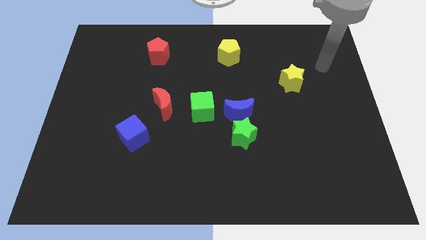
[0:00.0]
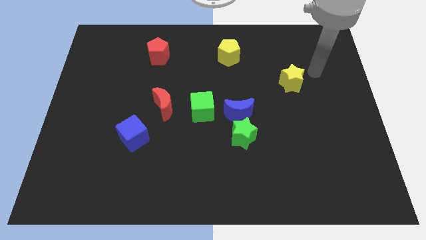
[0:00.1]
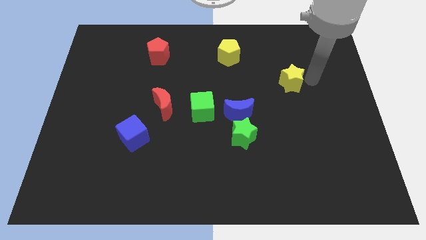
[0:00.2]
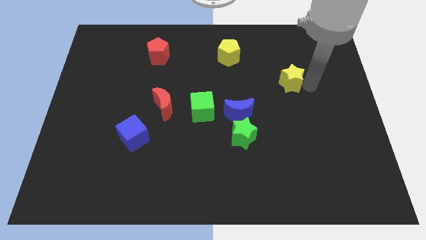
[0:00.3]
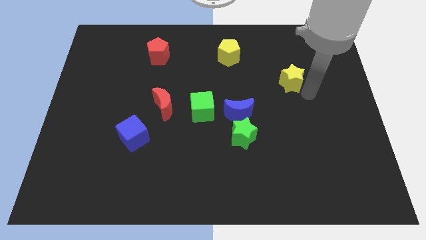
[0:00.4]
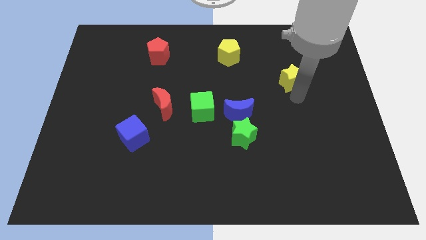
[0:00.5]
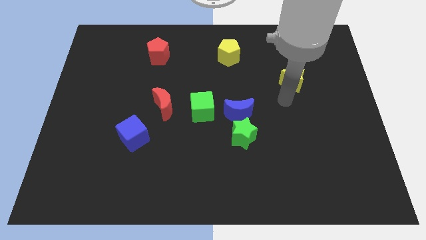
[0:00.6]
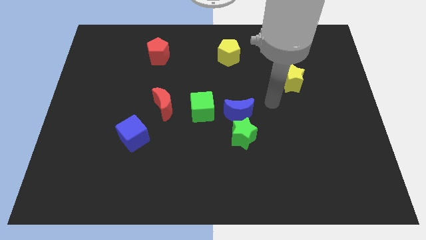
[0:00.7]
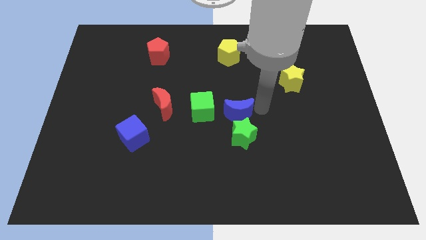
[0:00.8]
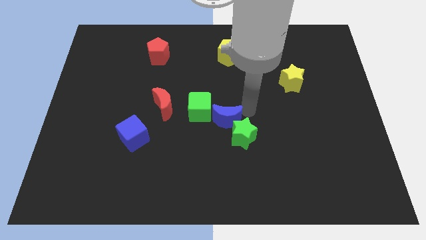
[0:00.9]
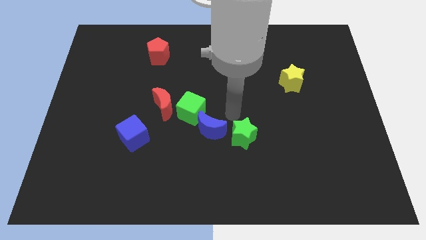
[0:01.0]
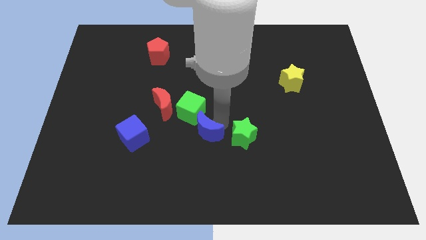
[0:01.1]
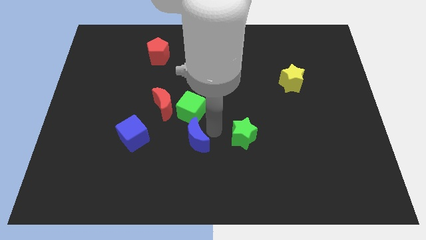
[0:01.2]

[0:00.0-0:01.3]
pull the green star apart from the blue moon

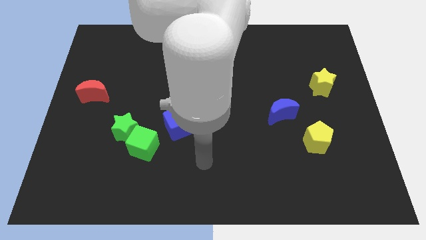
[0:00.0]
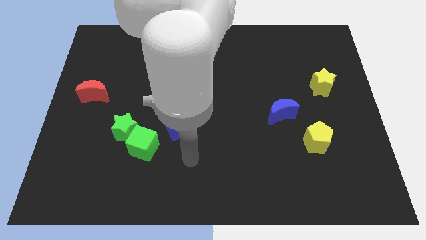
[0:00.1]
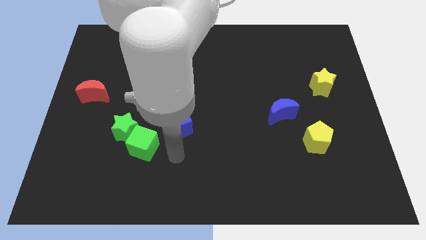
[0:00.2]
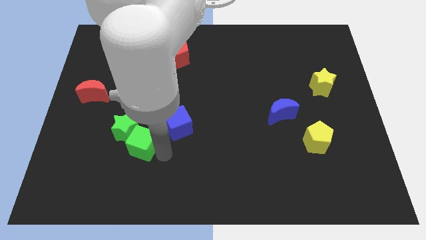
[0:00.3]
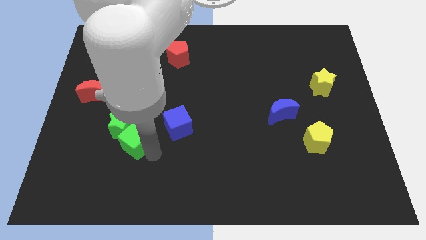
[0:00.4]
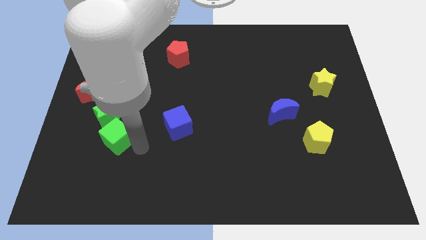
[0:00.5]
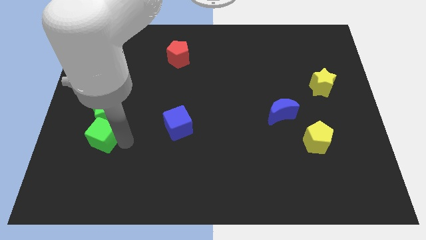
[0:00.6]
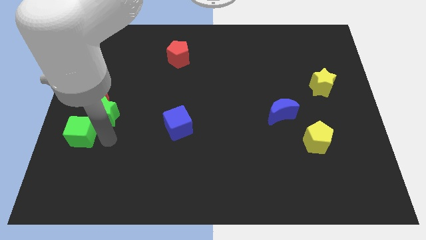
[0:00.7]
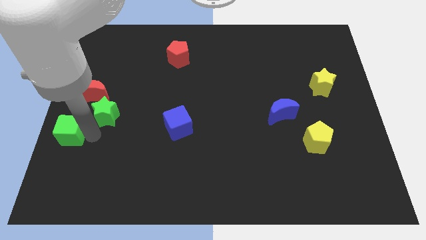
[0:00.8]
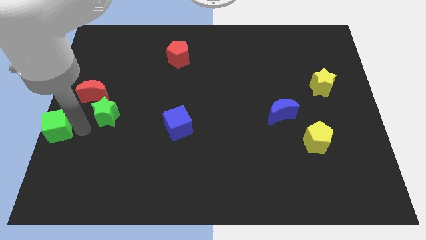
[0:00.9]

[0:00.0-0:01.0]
pull the green star apart from the green cube

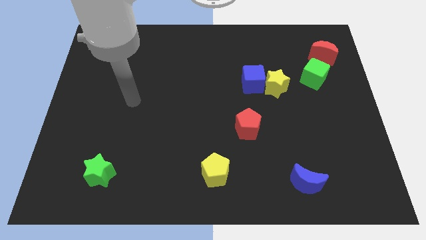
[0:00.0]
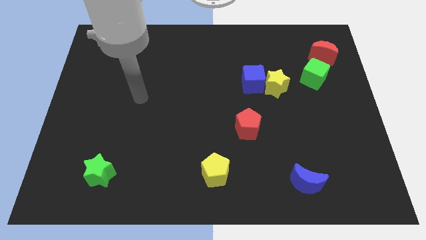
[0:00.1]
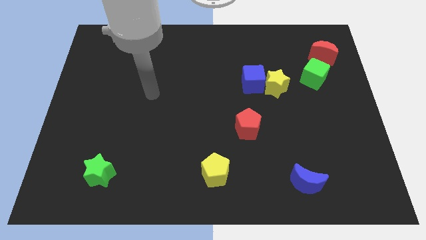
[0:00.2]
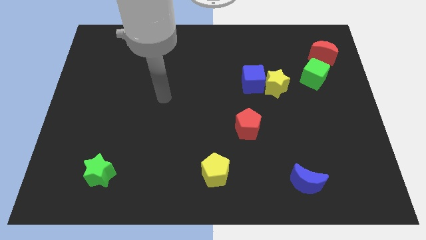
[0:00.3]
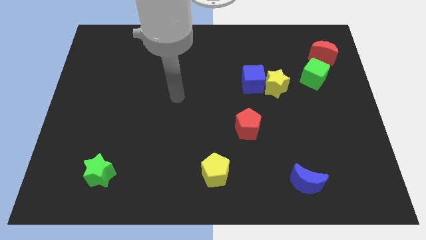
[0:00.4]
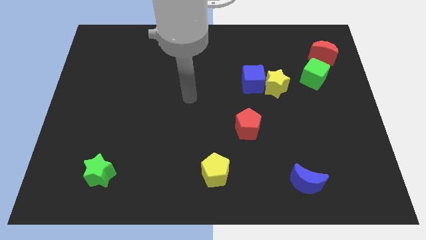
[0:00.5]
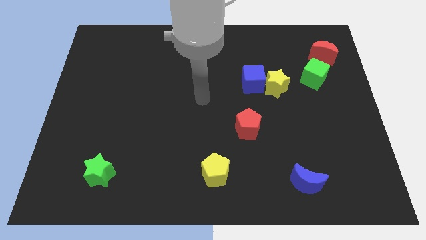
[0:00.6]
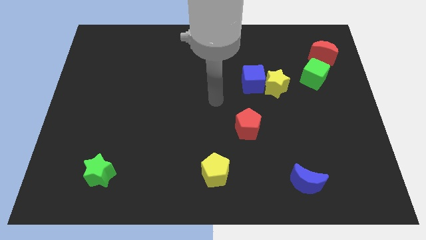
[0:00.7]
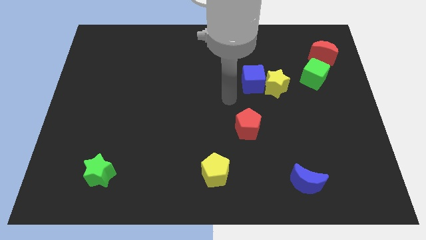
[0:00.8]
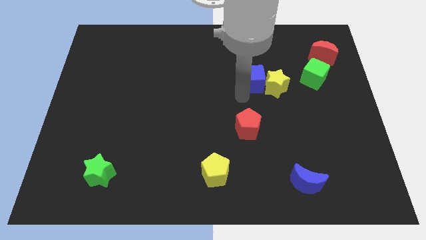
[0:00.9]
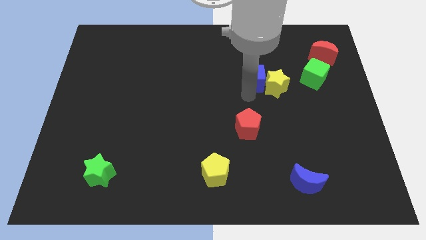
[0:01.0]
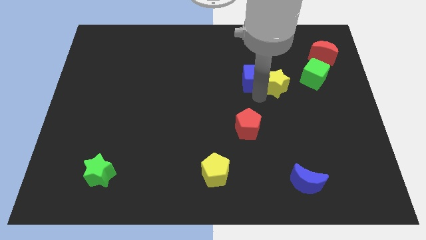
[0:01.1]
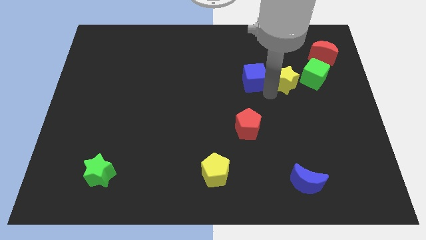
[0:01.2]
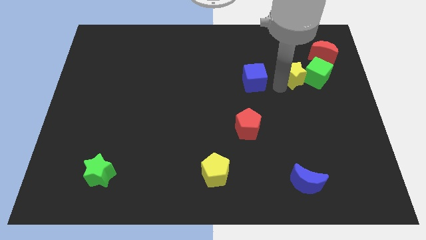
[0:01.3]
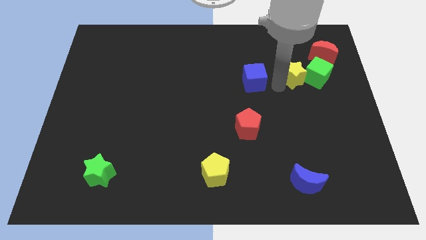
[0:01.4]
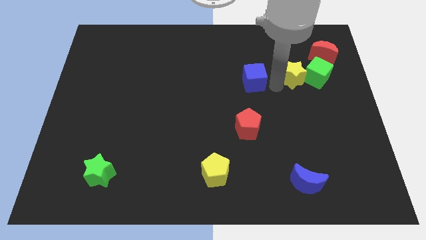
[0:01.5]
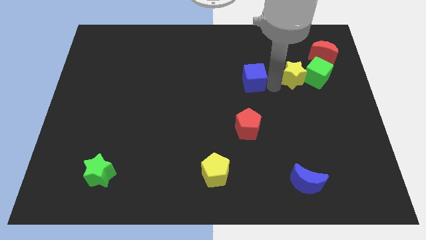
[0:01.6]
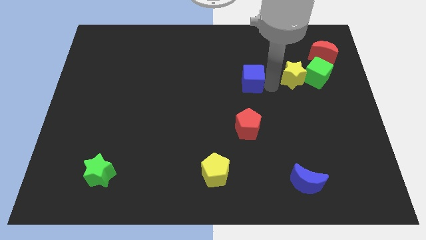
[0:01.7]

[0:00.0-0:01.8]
pull the blue cube apart from the yellow star

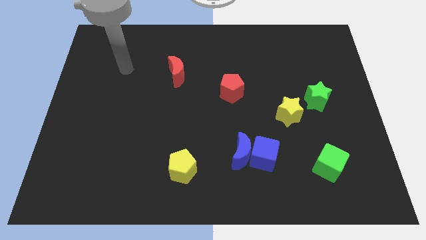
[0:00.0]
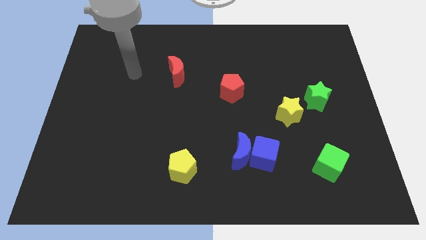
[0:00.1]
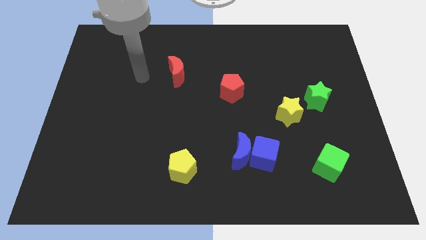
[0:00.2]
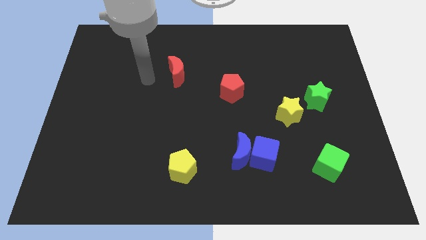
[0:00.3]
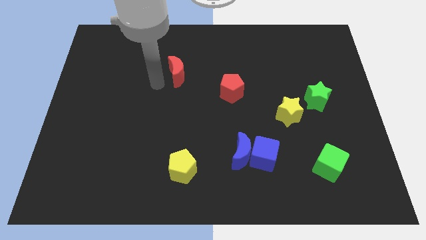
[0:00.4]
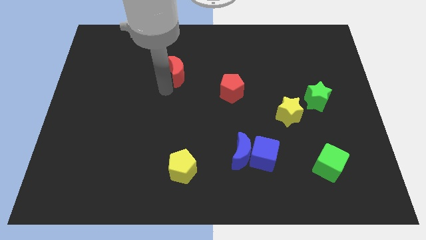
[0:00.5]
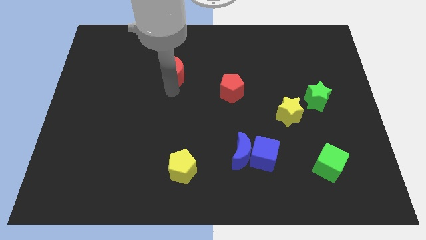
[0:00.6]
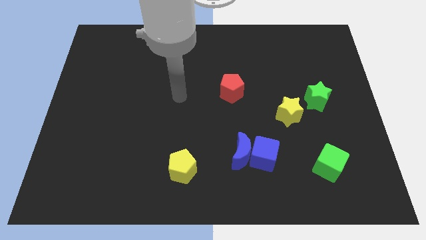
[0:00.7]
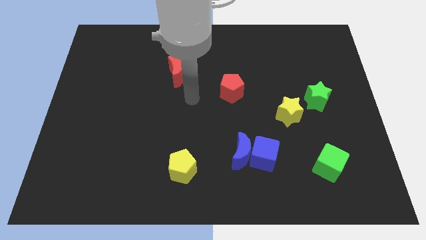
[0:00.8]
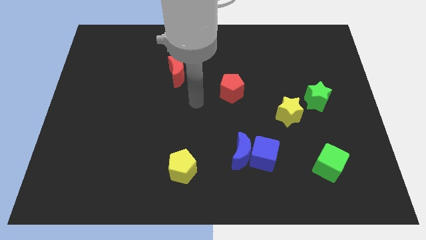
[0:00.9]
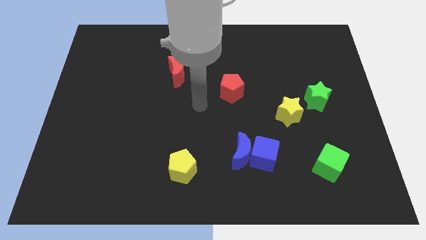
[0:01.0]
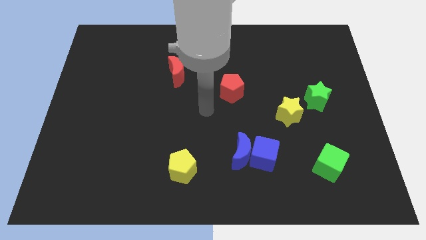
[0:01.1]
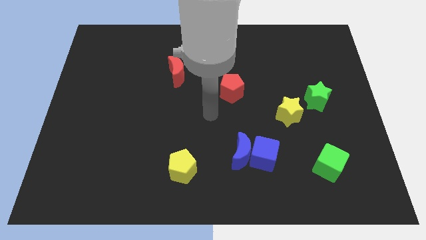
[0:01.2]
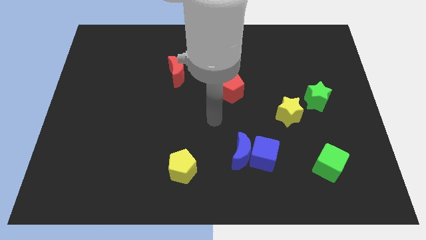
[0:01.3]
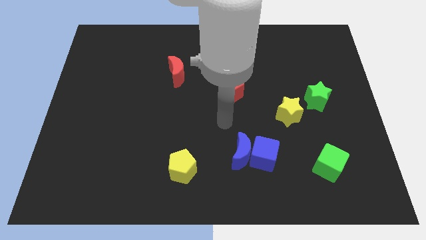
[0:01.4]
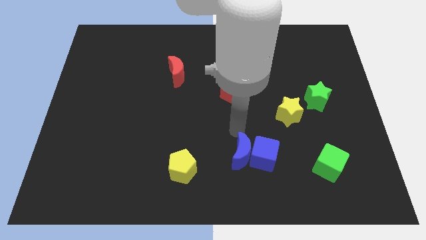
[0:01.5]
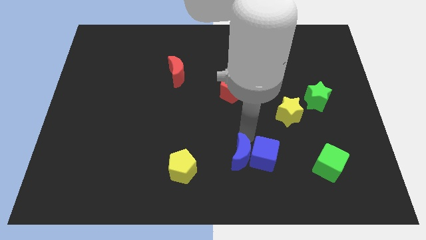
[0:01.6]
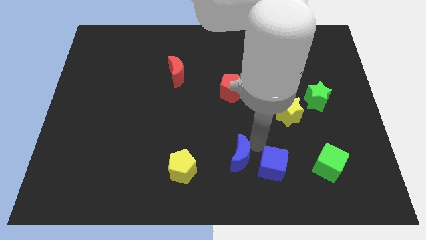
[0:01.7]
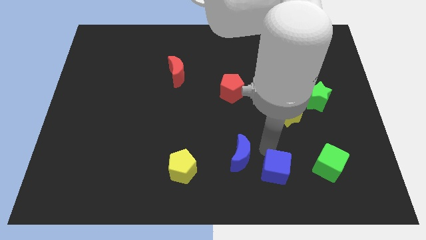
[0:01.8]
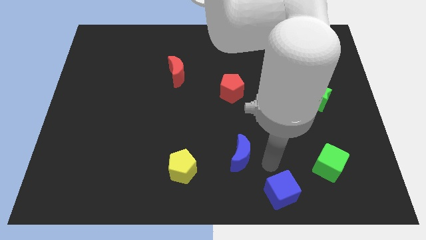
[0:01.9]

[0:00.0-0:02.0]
move the blue moon away from the blue cube

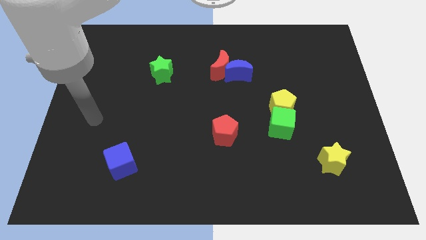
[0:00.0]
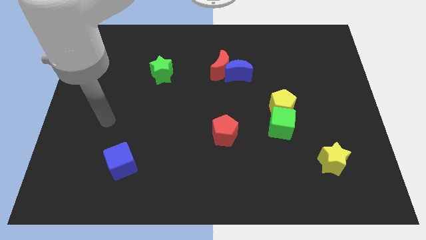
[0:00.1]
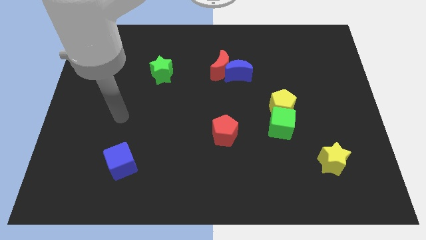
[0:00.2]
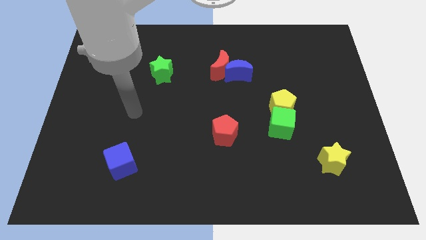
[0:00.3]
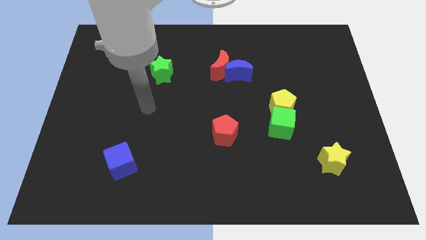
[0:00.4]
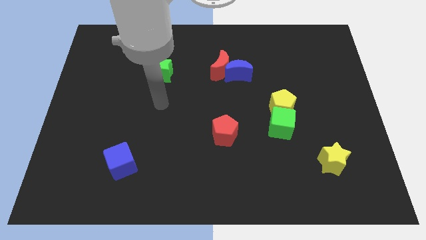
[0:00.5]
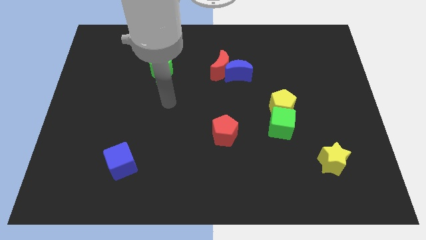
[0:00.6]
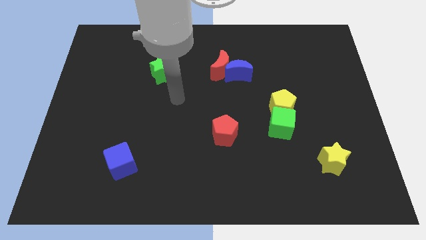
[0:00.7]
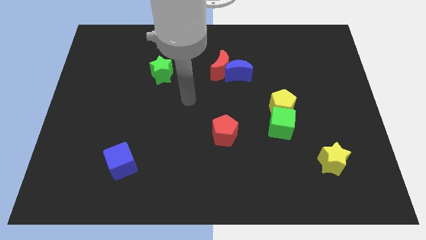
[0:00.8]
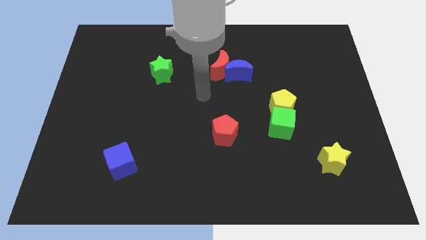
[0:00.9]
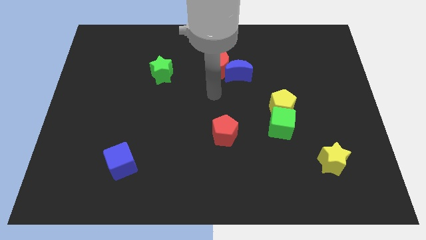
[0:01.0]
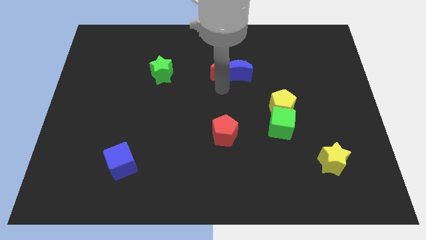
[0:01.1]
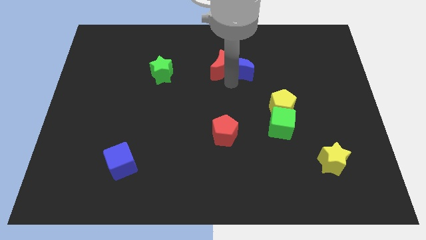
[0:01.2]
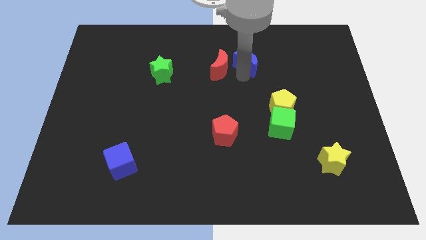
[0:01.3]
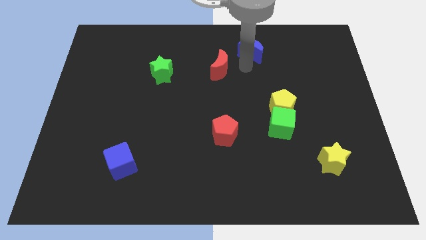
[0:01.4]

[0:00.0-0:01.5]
pull the red moon apart from the blue moon

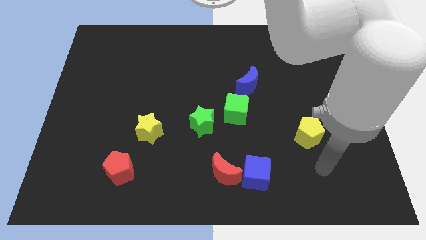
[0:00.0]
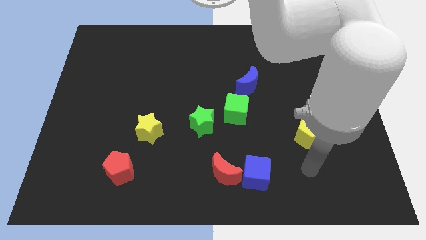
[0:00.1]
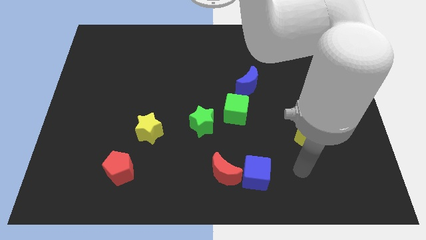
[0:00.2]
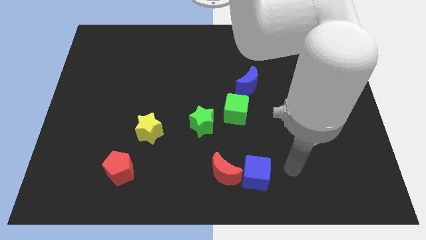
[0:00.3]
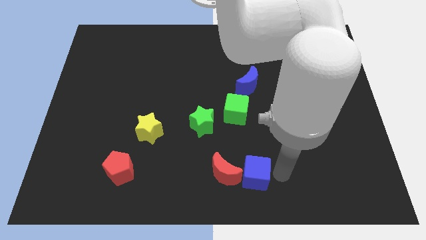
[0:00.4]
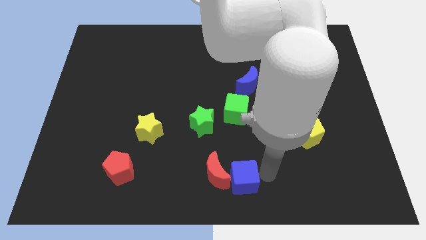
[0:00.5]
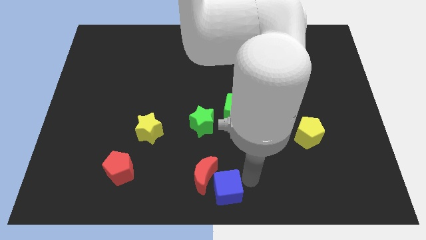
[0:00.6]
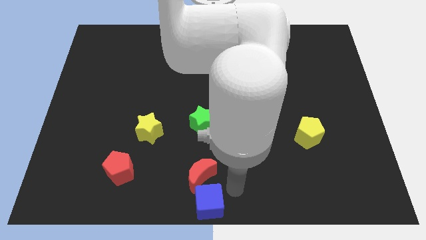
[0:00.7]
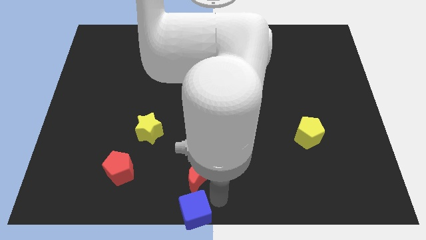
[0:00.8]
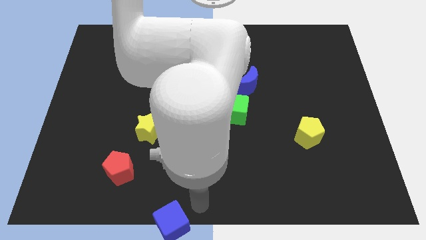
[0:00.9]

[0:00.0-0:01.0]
pull the red moon apart from the blue cube

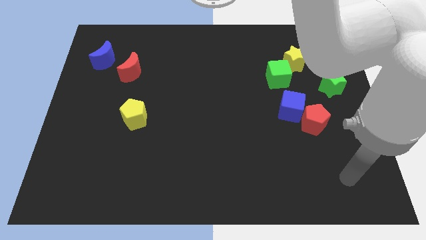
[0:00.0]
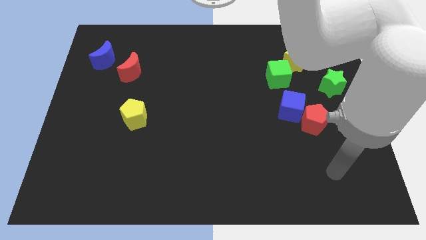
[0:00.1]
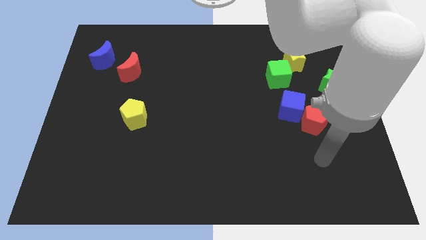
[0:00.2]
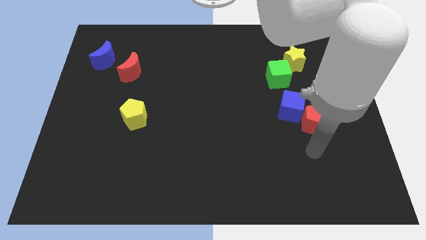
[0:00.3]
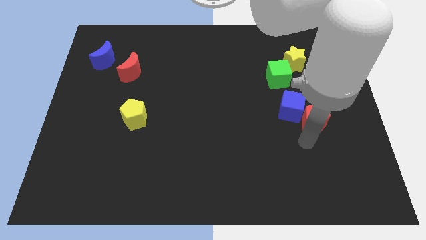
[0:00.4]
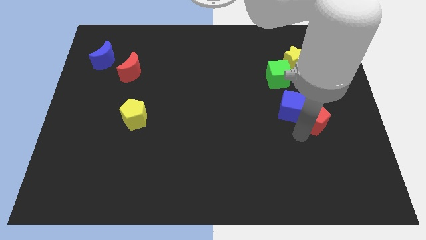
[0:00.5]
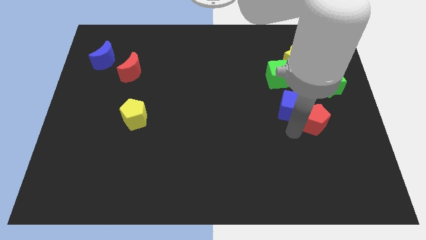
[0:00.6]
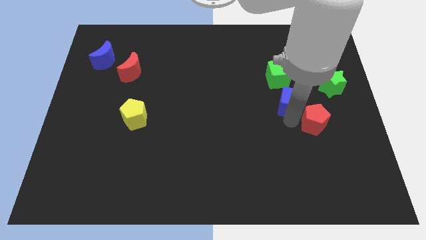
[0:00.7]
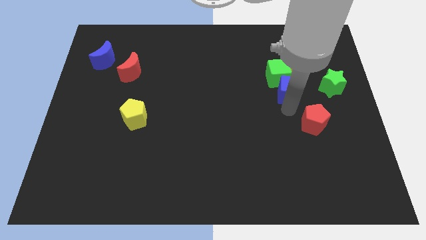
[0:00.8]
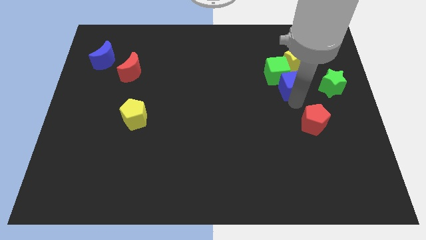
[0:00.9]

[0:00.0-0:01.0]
pull the red pentagon apart from the blue cube
